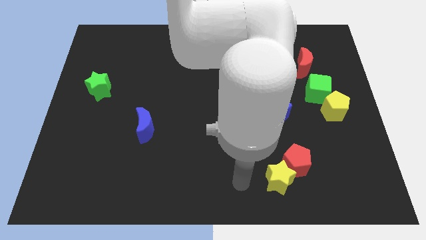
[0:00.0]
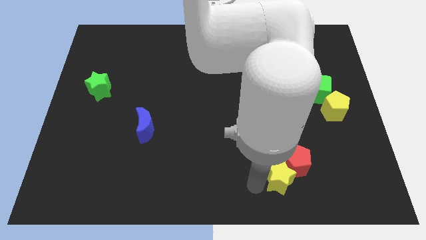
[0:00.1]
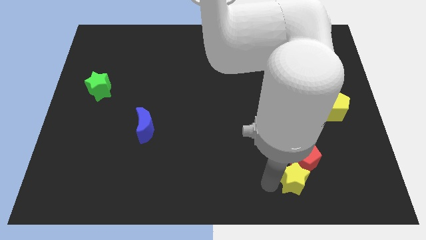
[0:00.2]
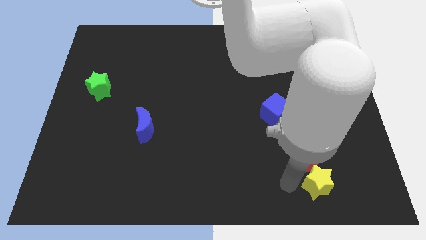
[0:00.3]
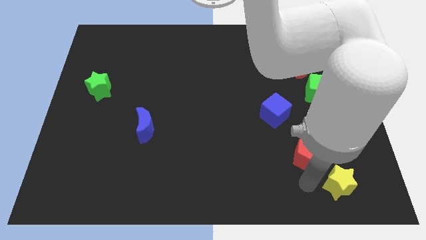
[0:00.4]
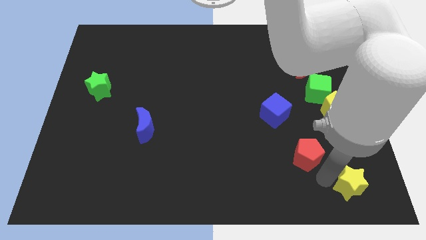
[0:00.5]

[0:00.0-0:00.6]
move the red pentagon away from the yellow star

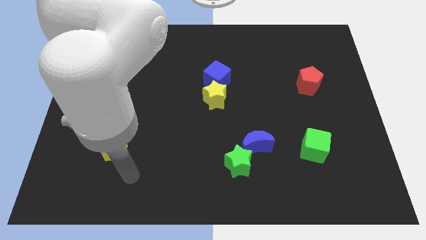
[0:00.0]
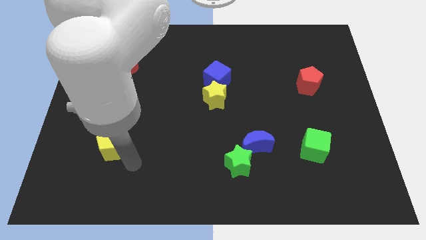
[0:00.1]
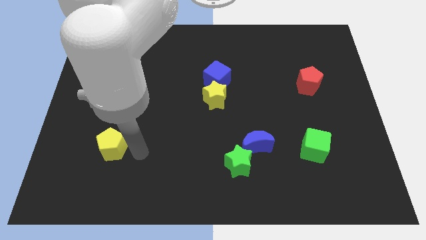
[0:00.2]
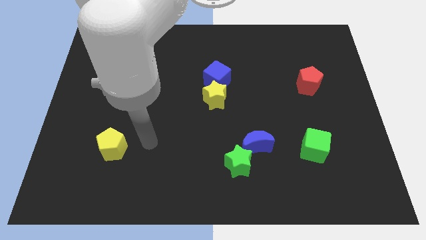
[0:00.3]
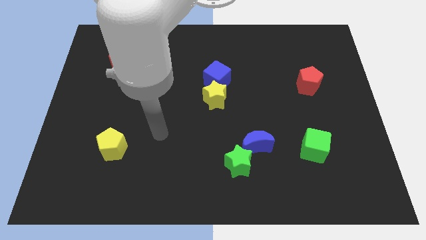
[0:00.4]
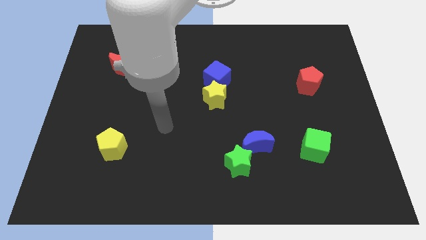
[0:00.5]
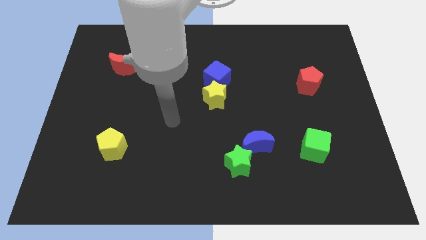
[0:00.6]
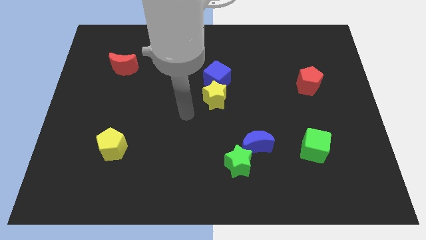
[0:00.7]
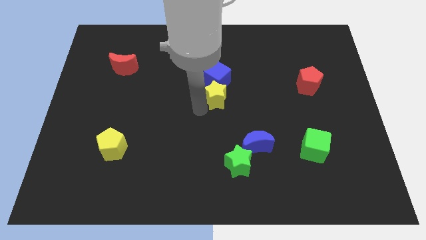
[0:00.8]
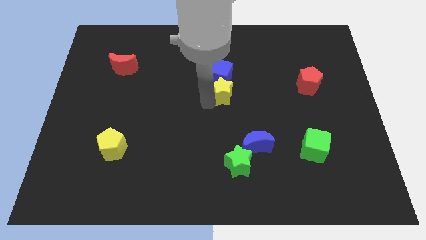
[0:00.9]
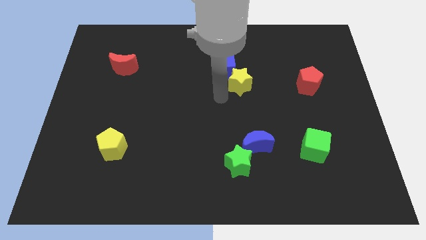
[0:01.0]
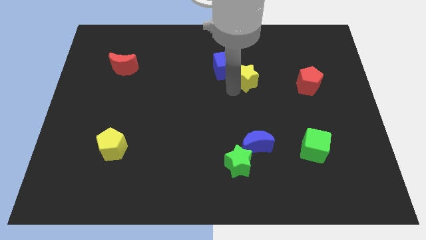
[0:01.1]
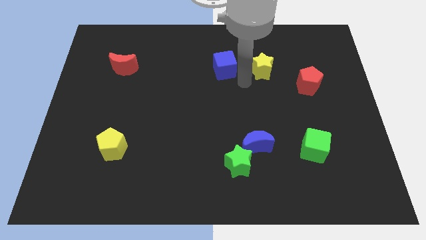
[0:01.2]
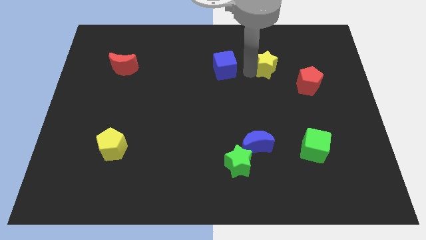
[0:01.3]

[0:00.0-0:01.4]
separate the blue cube from the yellow star

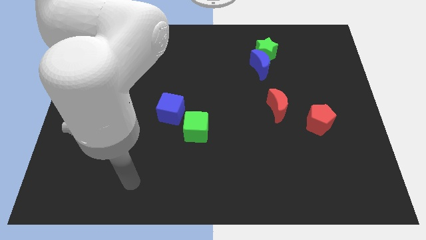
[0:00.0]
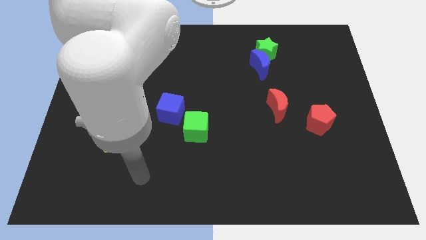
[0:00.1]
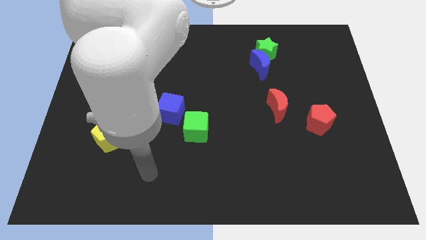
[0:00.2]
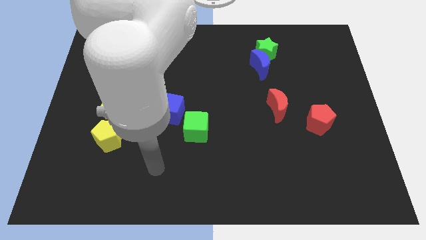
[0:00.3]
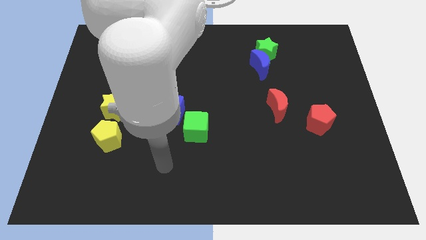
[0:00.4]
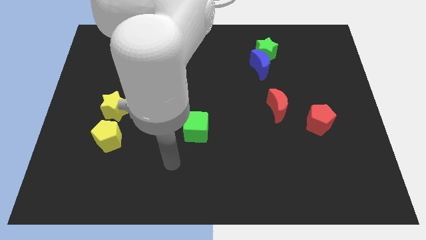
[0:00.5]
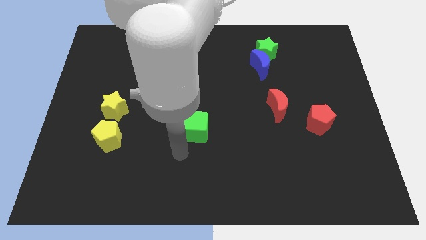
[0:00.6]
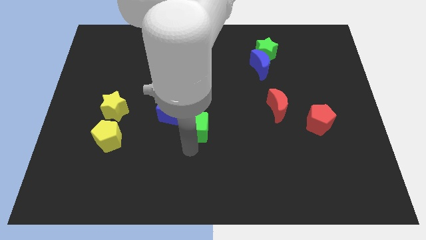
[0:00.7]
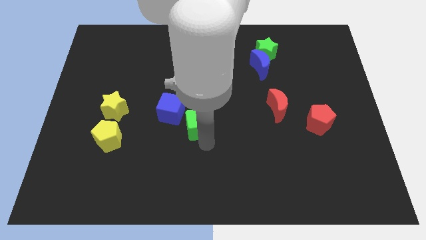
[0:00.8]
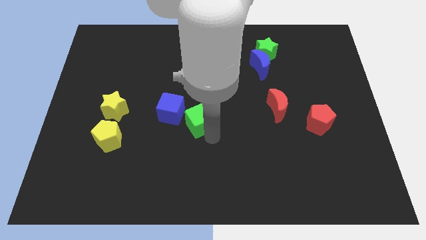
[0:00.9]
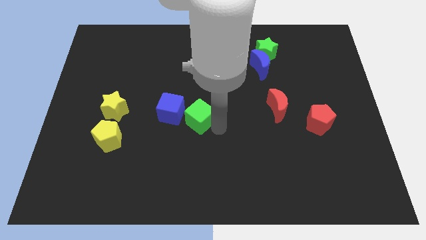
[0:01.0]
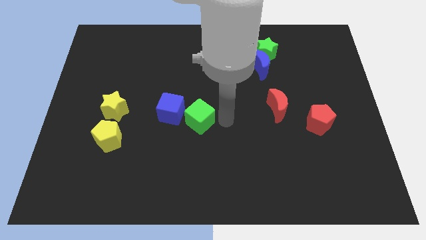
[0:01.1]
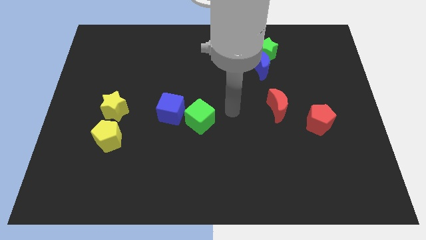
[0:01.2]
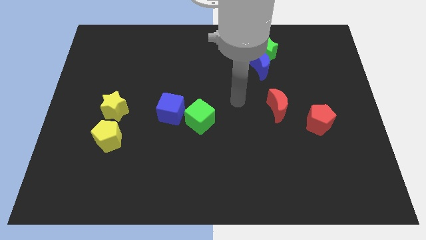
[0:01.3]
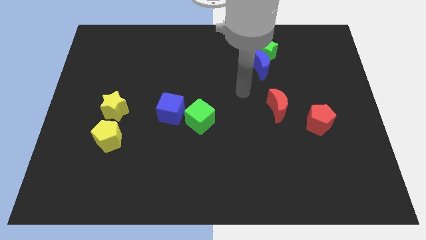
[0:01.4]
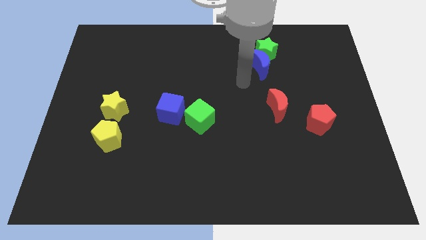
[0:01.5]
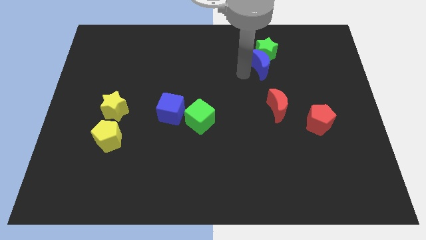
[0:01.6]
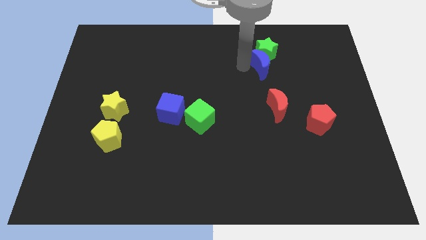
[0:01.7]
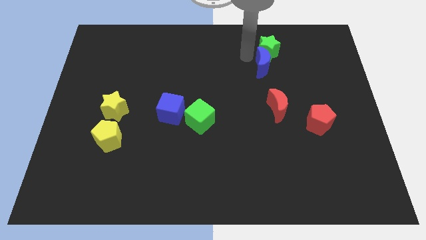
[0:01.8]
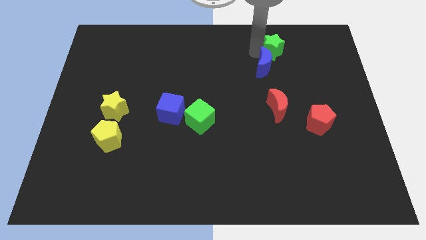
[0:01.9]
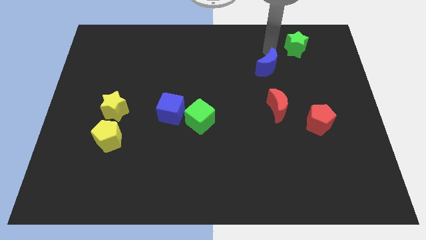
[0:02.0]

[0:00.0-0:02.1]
move the blue moon away from the green star

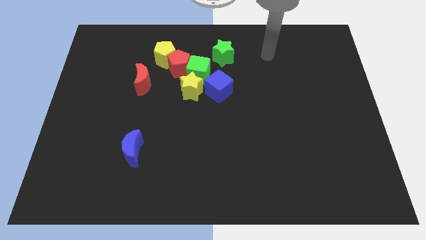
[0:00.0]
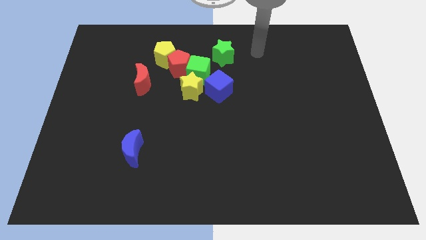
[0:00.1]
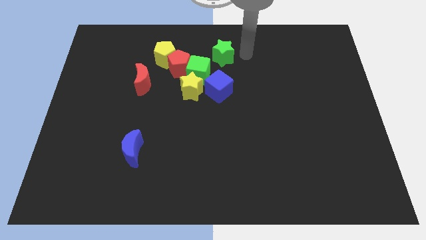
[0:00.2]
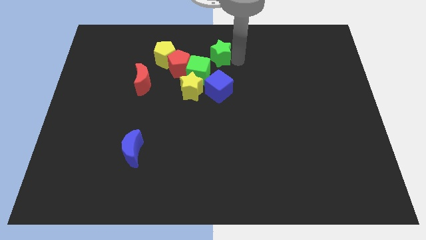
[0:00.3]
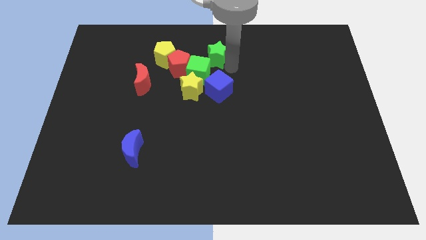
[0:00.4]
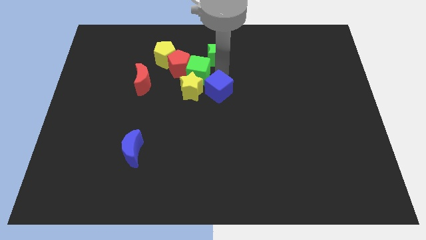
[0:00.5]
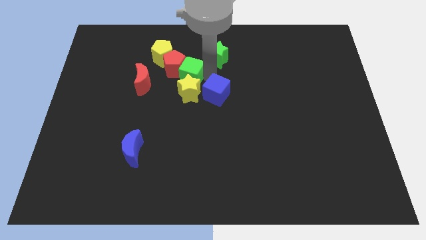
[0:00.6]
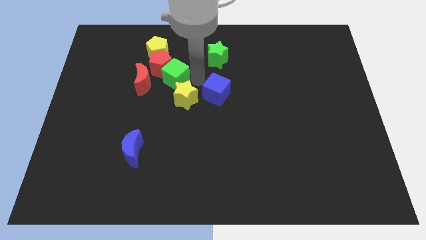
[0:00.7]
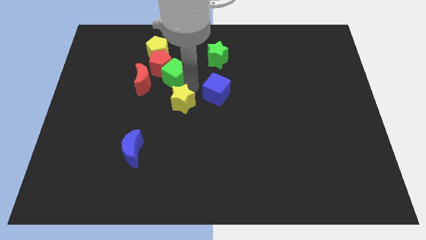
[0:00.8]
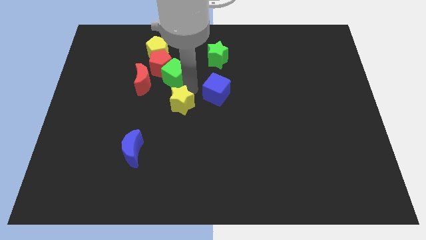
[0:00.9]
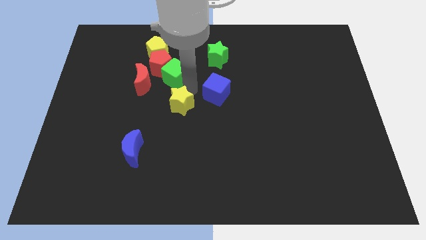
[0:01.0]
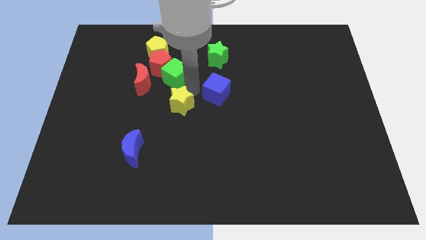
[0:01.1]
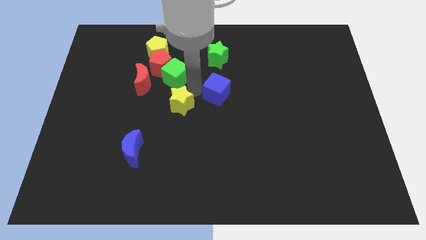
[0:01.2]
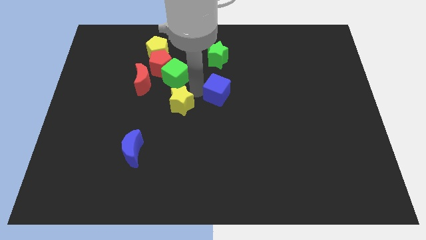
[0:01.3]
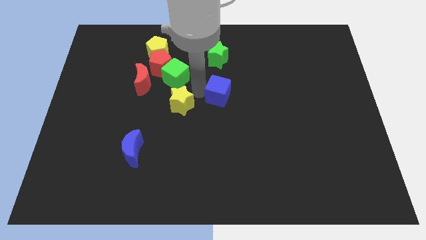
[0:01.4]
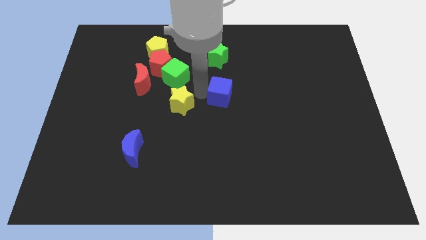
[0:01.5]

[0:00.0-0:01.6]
move the blue cube away from the yellow star and green cube

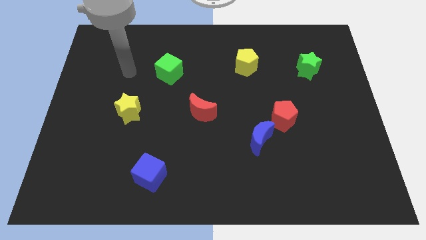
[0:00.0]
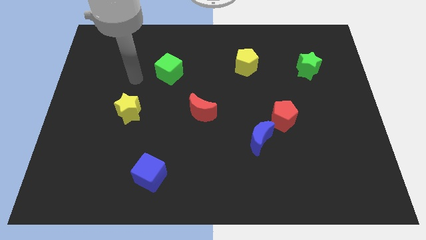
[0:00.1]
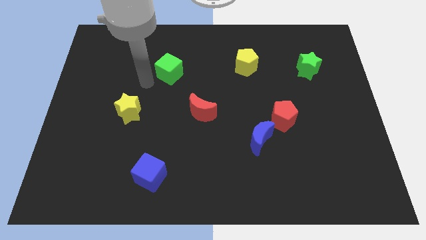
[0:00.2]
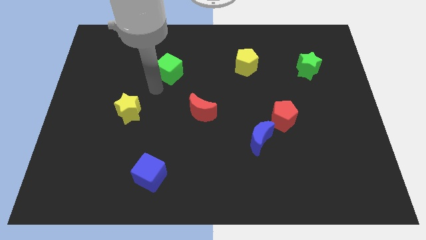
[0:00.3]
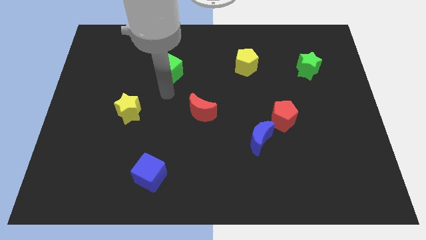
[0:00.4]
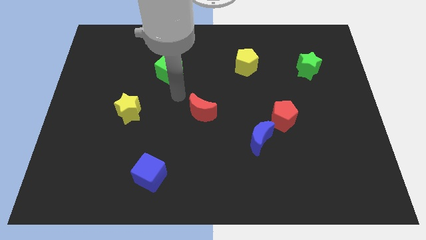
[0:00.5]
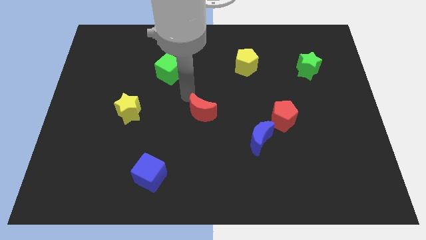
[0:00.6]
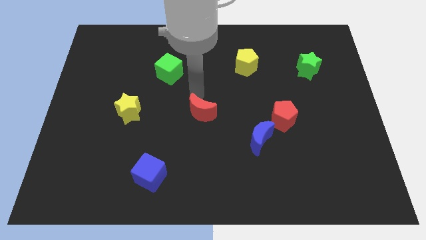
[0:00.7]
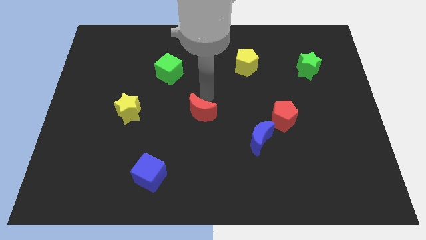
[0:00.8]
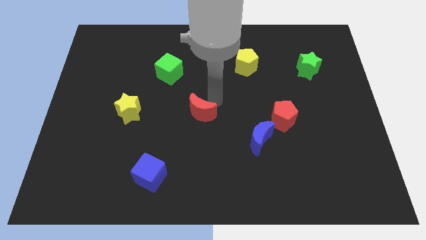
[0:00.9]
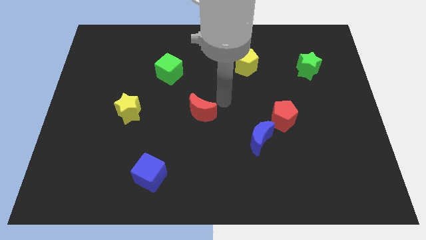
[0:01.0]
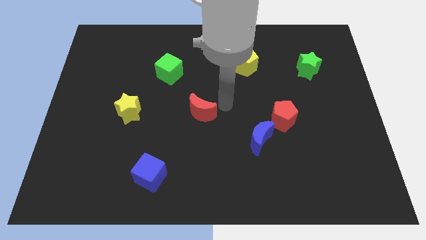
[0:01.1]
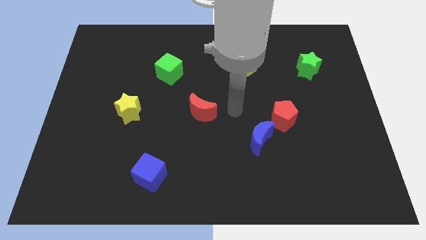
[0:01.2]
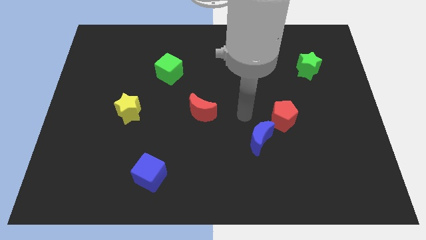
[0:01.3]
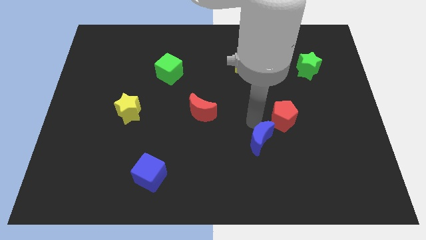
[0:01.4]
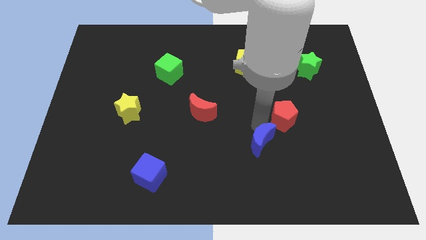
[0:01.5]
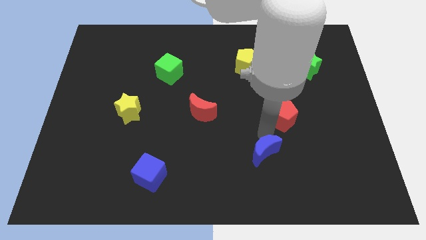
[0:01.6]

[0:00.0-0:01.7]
pull the red pentagon apart from the blue moon

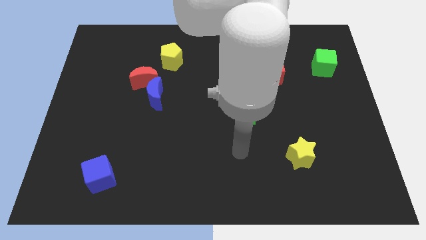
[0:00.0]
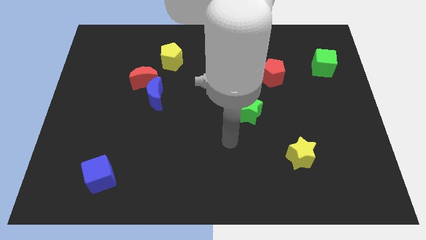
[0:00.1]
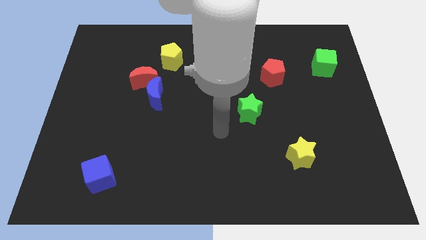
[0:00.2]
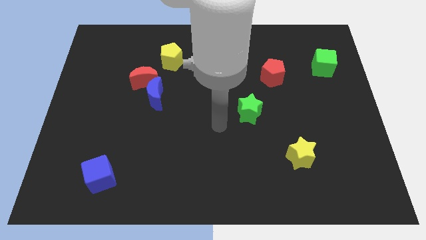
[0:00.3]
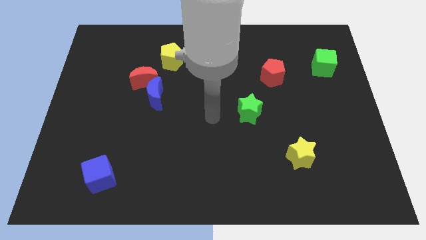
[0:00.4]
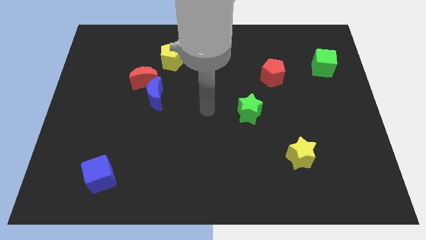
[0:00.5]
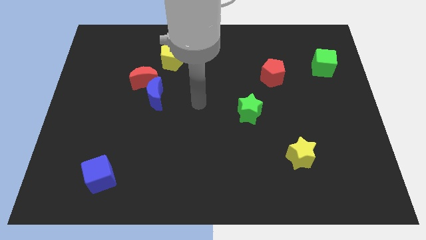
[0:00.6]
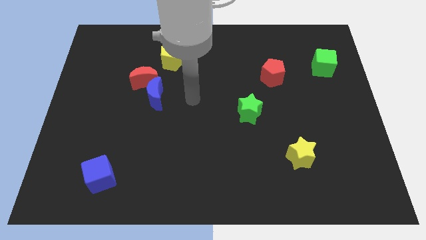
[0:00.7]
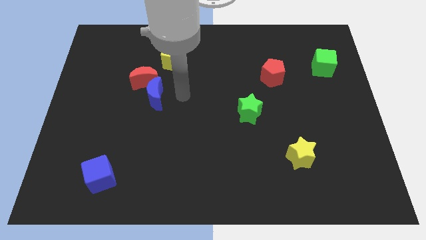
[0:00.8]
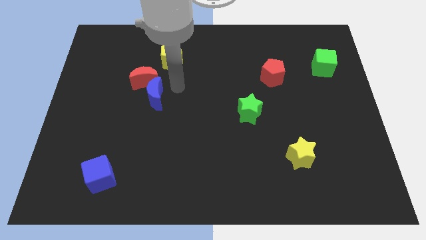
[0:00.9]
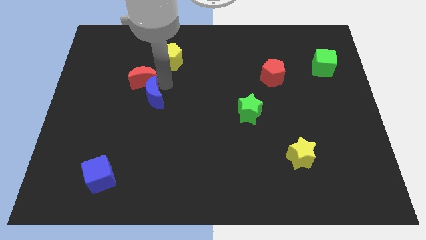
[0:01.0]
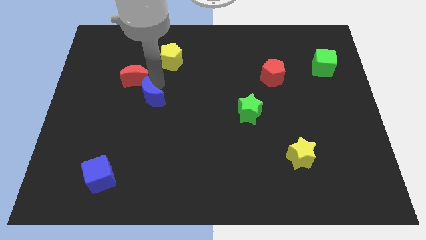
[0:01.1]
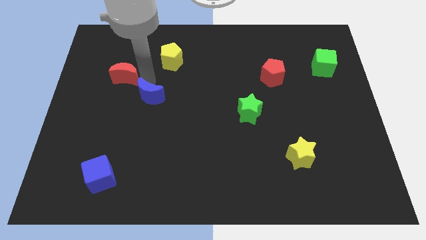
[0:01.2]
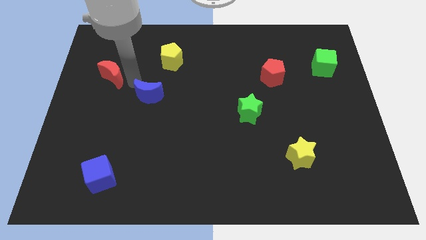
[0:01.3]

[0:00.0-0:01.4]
move the blue moon away from the red moon

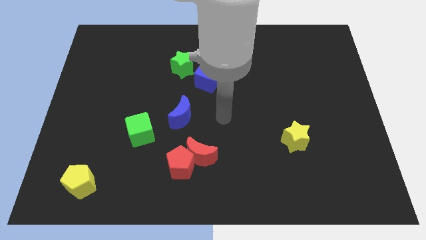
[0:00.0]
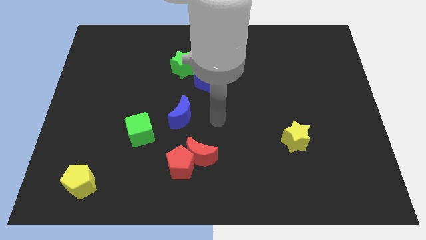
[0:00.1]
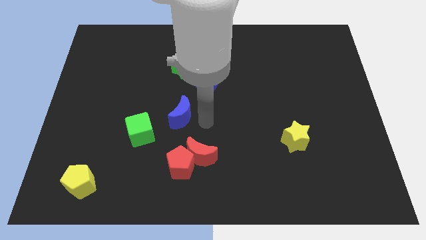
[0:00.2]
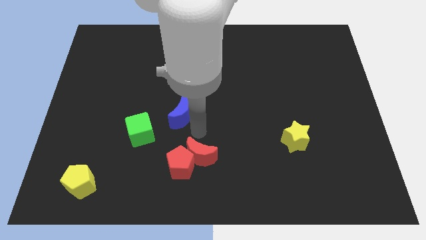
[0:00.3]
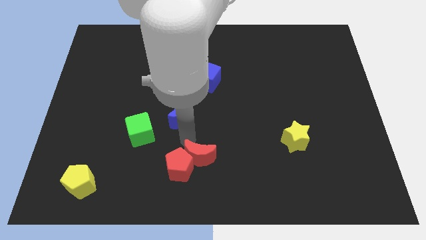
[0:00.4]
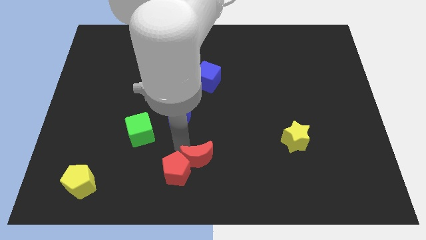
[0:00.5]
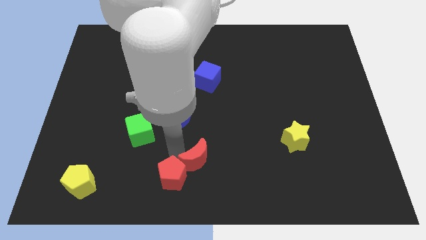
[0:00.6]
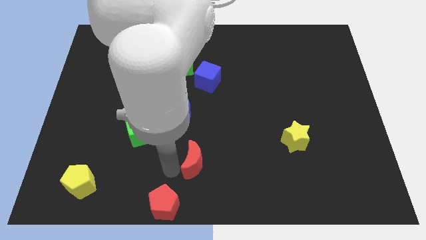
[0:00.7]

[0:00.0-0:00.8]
separate the red moon from the red pentagon
